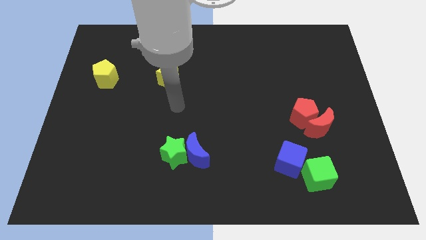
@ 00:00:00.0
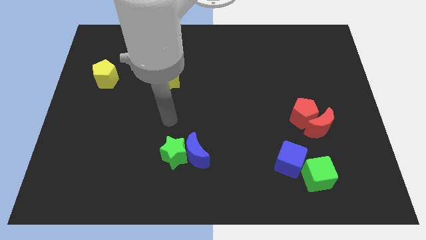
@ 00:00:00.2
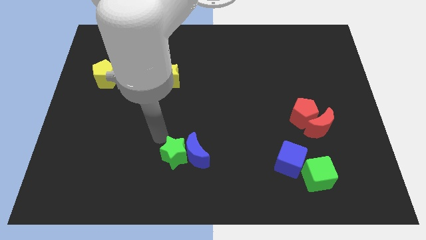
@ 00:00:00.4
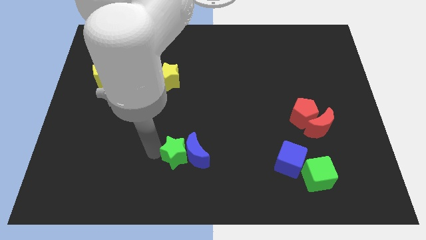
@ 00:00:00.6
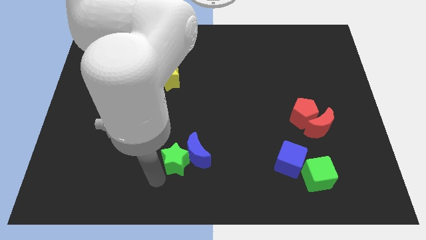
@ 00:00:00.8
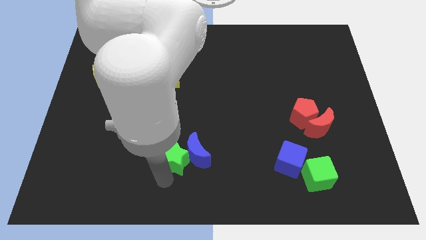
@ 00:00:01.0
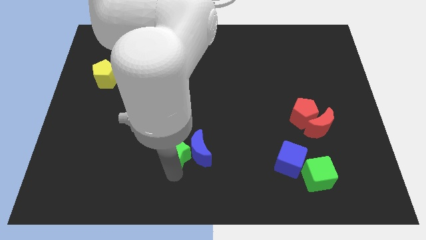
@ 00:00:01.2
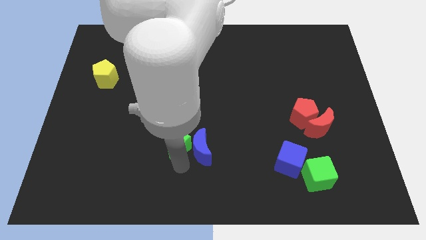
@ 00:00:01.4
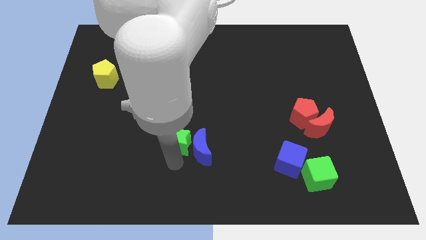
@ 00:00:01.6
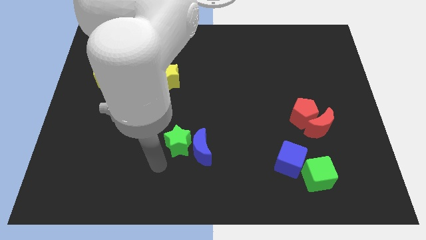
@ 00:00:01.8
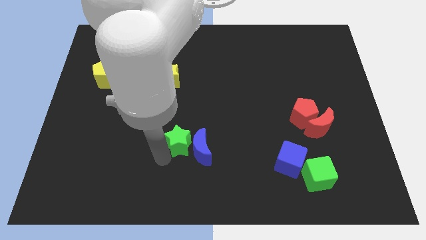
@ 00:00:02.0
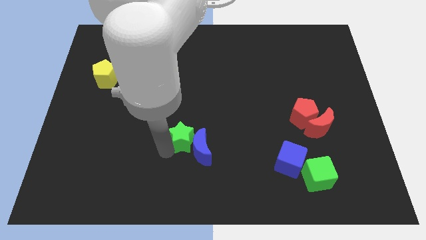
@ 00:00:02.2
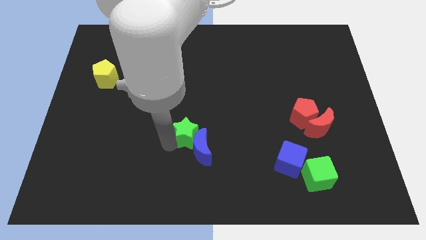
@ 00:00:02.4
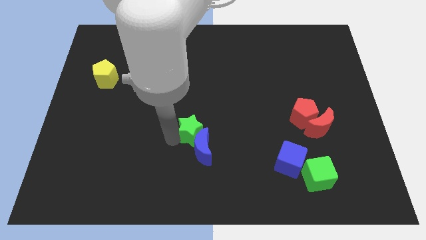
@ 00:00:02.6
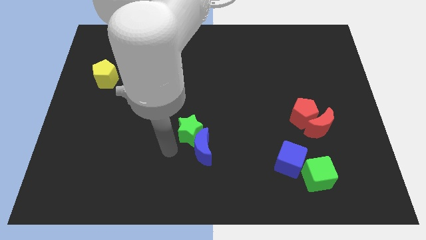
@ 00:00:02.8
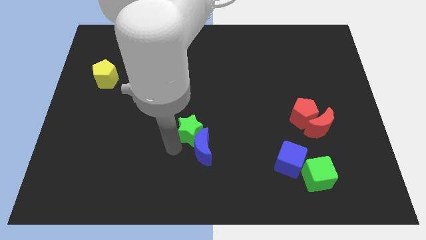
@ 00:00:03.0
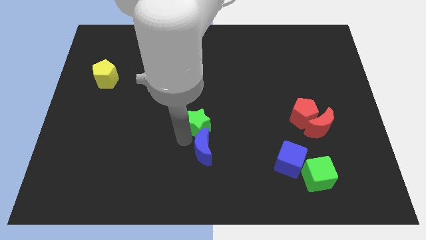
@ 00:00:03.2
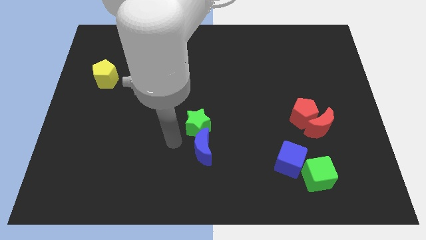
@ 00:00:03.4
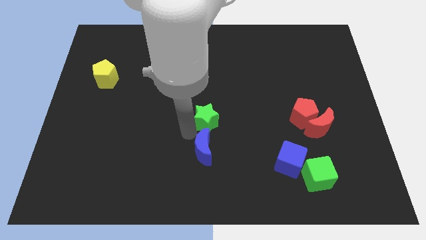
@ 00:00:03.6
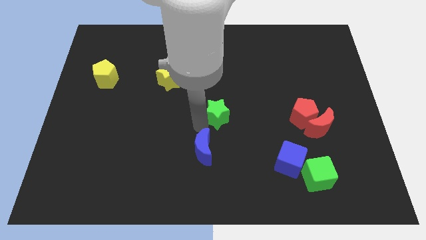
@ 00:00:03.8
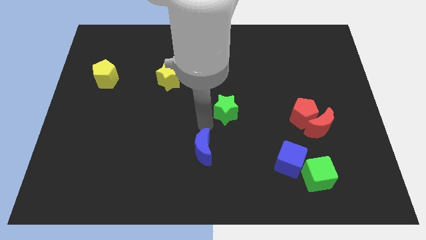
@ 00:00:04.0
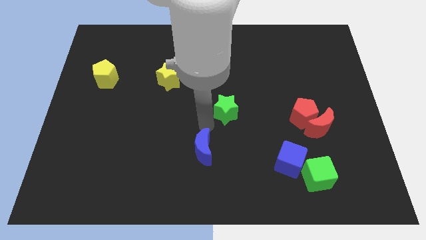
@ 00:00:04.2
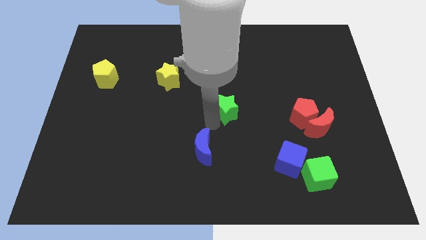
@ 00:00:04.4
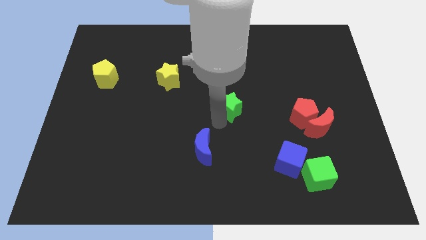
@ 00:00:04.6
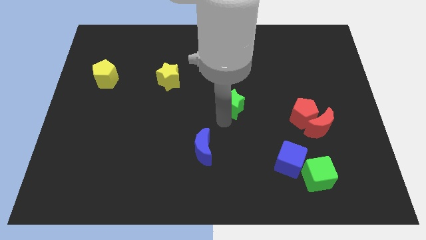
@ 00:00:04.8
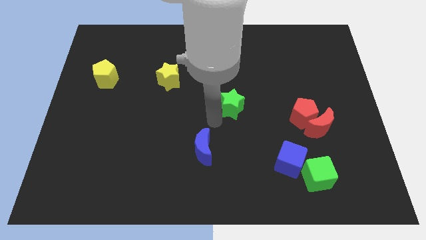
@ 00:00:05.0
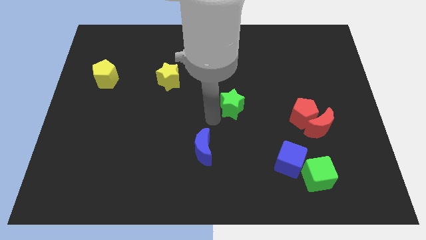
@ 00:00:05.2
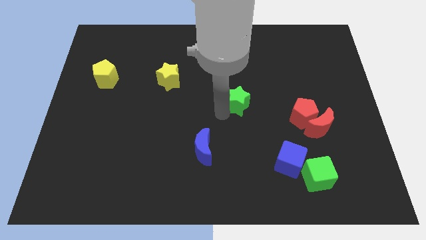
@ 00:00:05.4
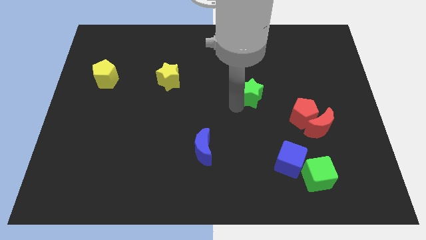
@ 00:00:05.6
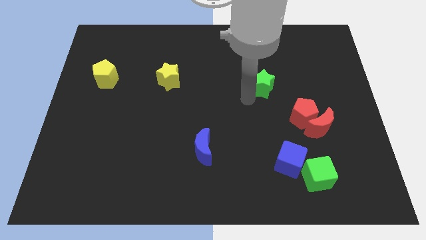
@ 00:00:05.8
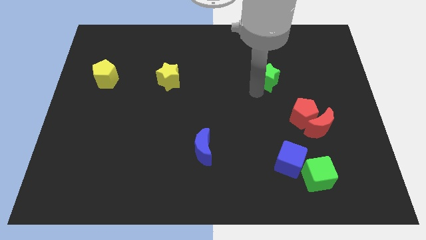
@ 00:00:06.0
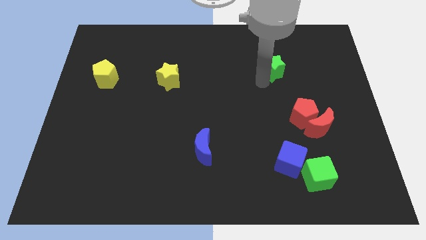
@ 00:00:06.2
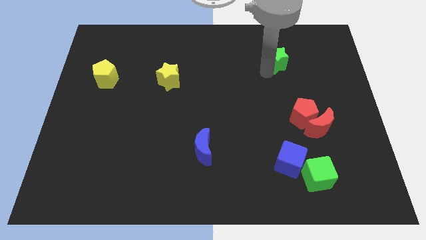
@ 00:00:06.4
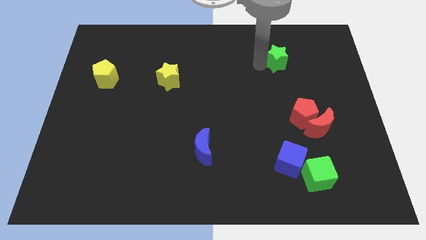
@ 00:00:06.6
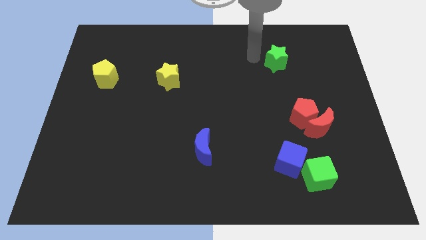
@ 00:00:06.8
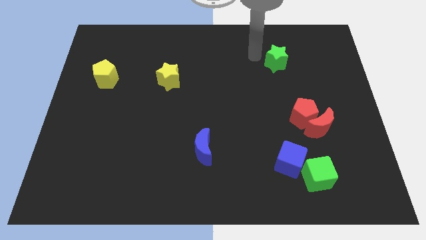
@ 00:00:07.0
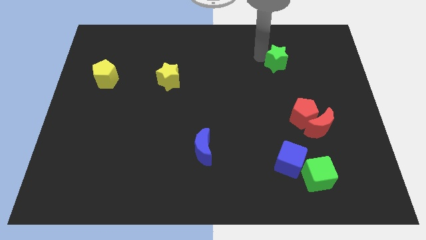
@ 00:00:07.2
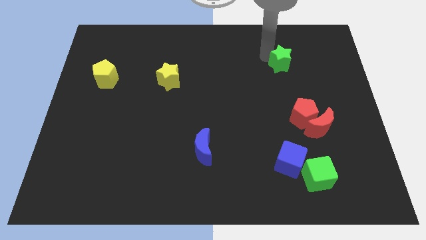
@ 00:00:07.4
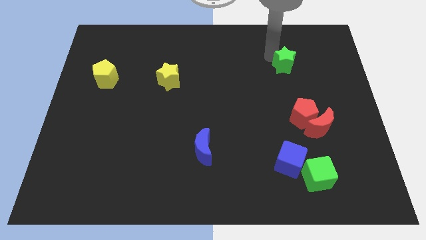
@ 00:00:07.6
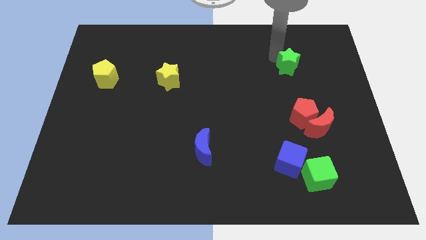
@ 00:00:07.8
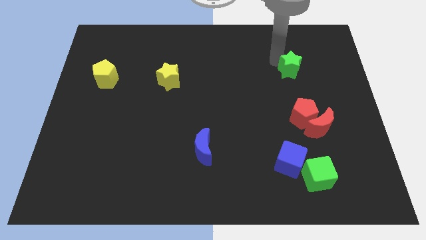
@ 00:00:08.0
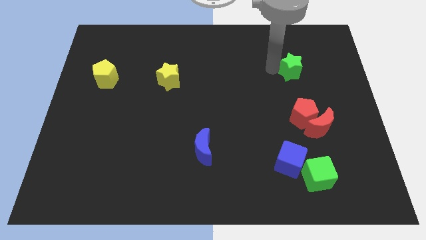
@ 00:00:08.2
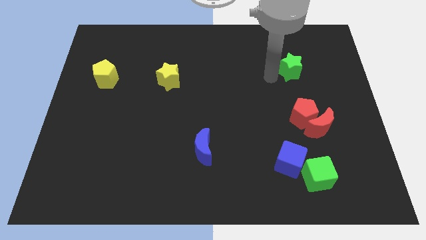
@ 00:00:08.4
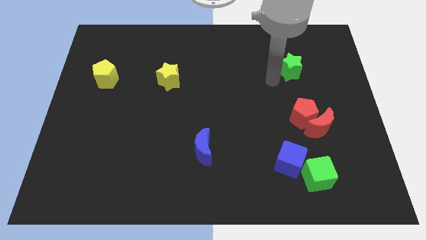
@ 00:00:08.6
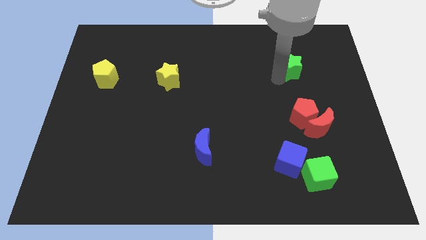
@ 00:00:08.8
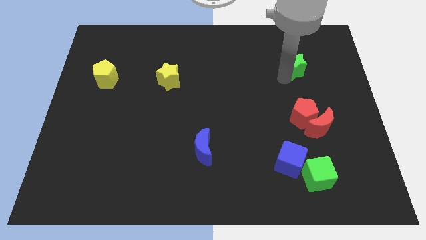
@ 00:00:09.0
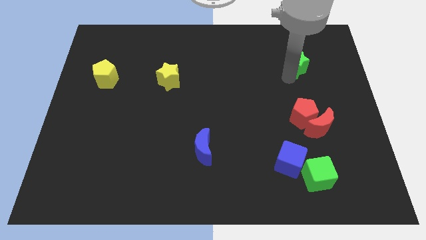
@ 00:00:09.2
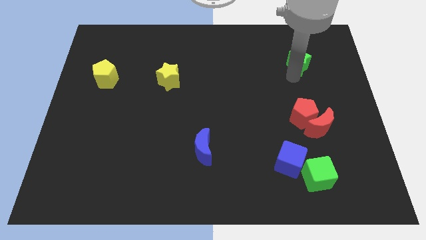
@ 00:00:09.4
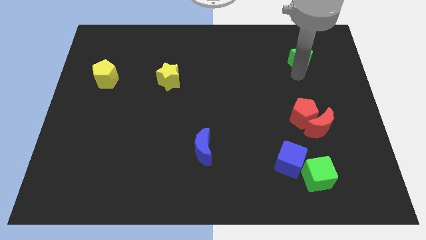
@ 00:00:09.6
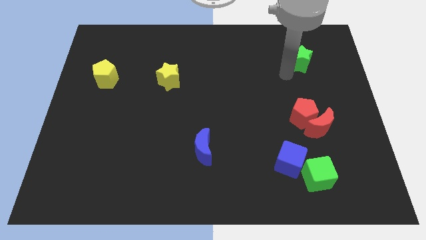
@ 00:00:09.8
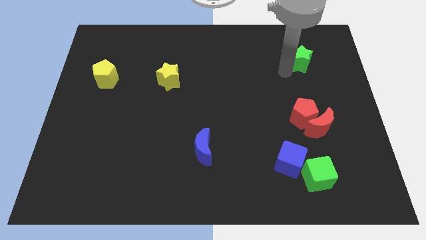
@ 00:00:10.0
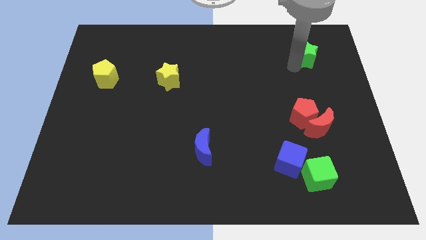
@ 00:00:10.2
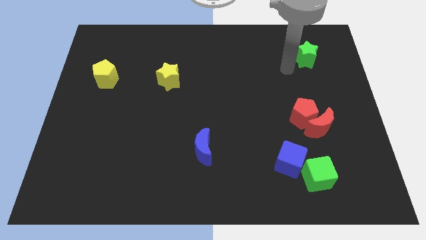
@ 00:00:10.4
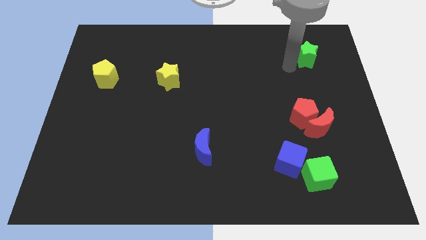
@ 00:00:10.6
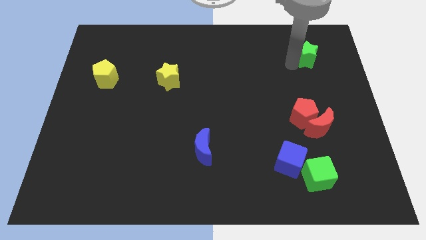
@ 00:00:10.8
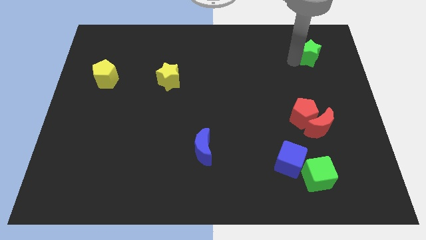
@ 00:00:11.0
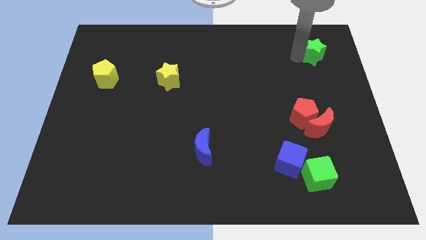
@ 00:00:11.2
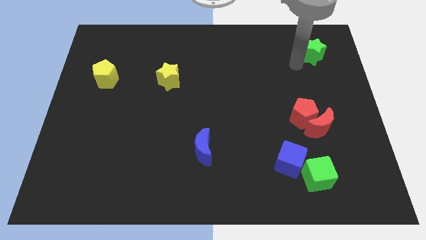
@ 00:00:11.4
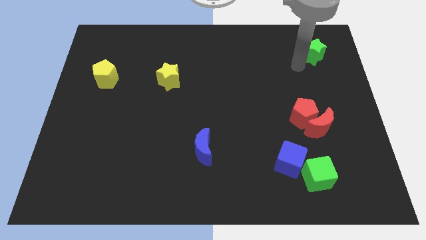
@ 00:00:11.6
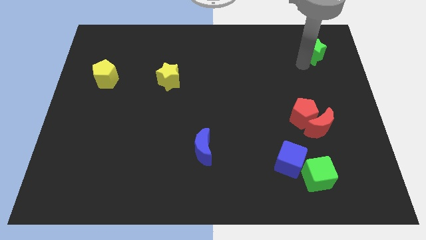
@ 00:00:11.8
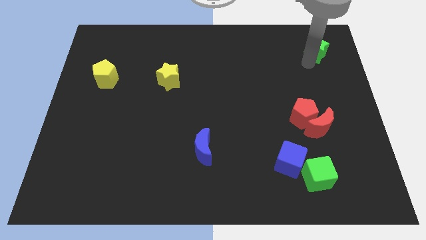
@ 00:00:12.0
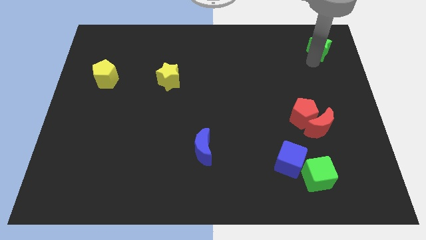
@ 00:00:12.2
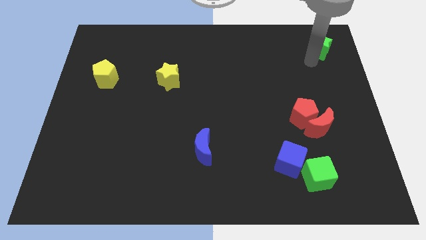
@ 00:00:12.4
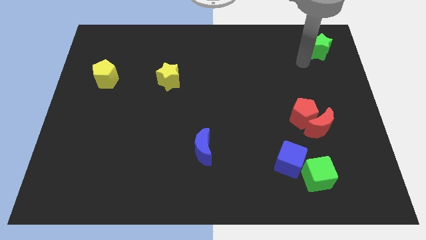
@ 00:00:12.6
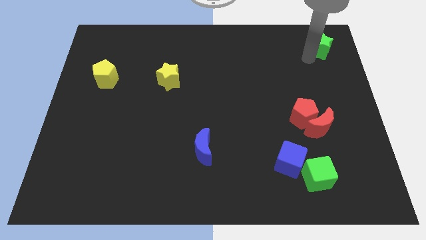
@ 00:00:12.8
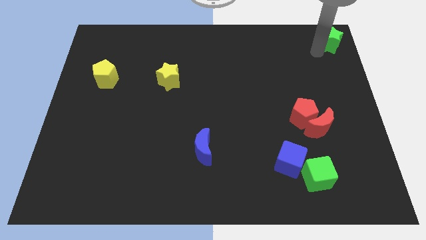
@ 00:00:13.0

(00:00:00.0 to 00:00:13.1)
move the green star to the top right

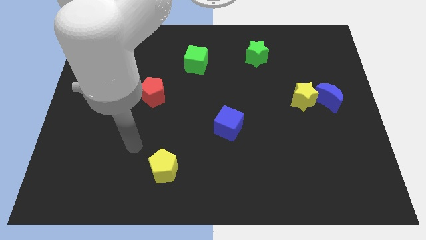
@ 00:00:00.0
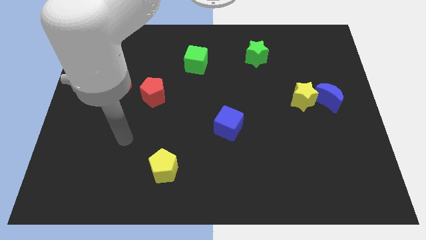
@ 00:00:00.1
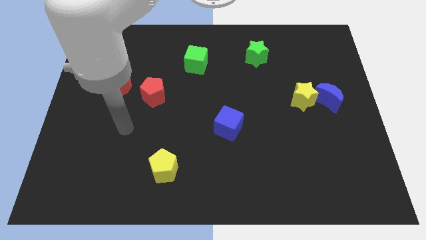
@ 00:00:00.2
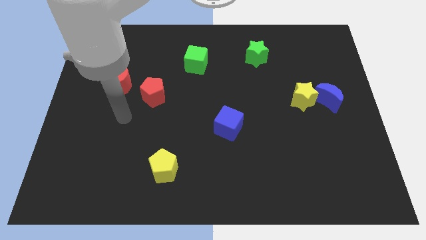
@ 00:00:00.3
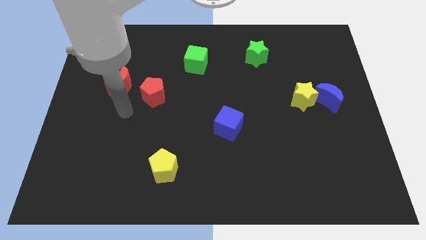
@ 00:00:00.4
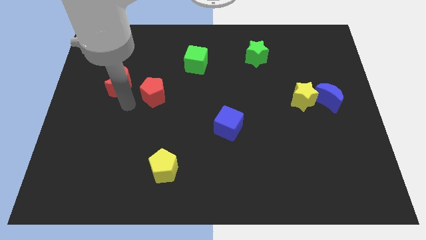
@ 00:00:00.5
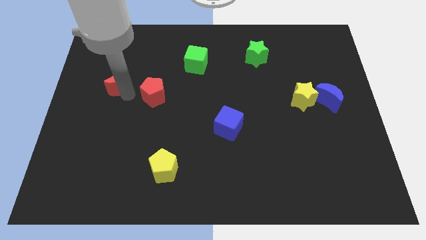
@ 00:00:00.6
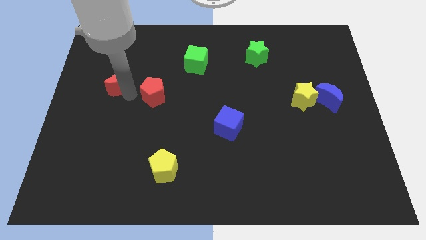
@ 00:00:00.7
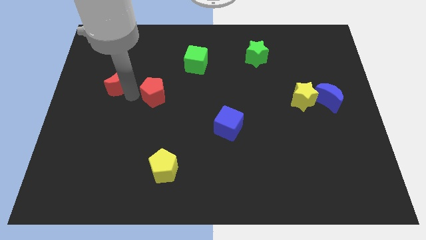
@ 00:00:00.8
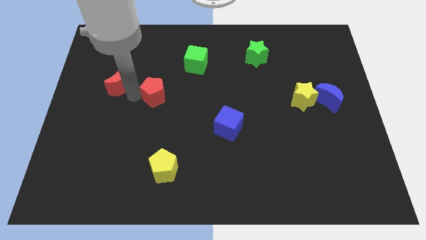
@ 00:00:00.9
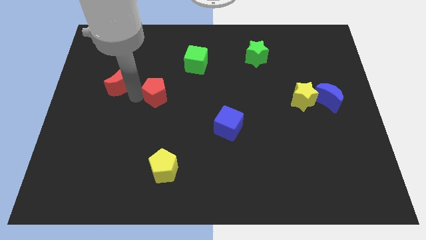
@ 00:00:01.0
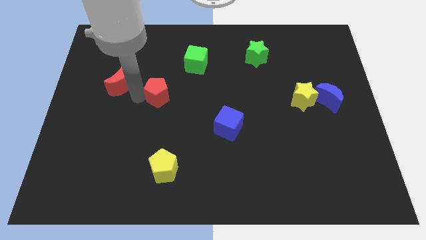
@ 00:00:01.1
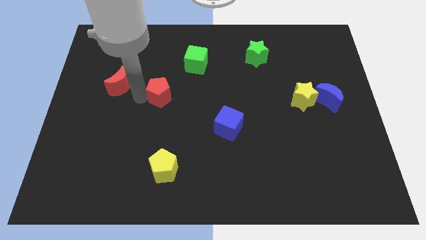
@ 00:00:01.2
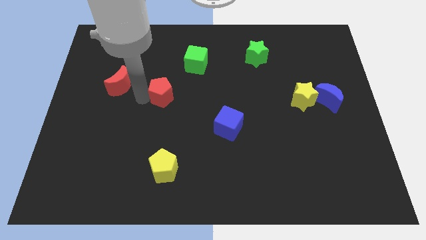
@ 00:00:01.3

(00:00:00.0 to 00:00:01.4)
push the red pentagon to the center of the board
